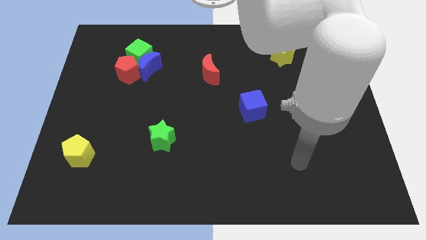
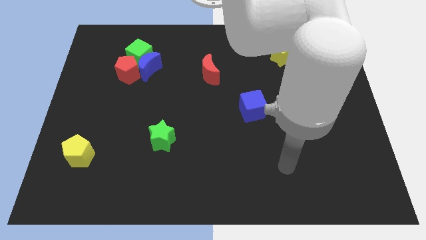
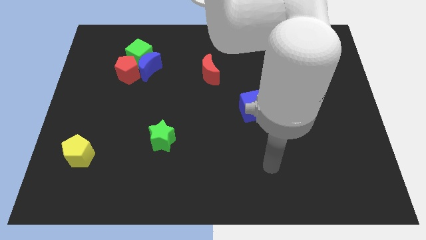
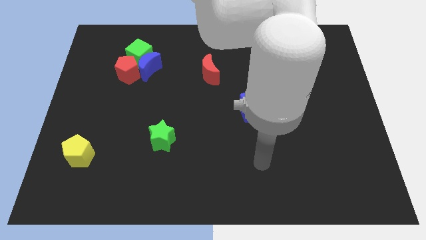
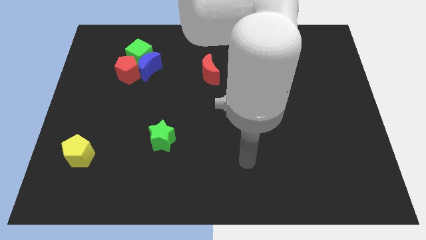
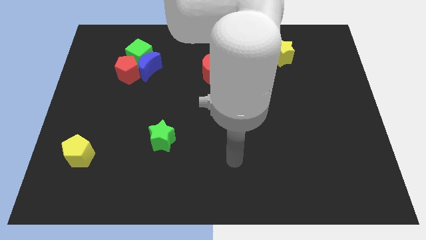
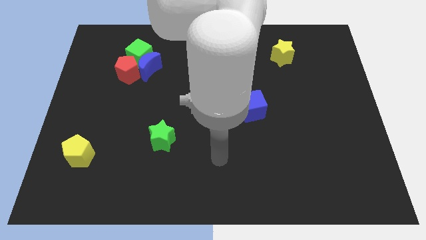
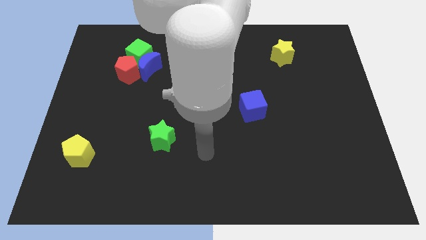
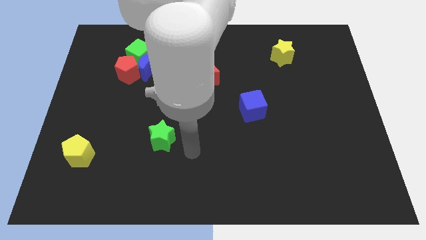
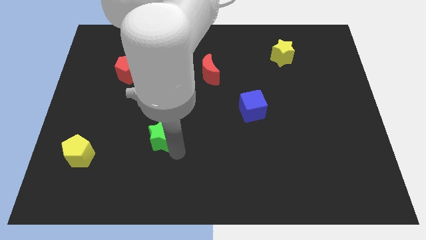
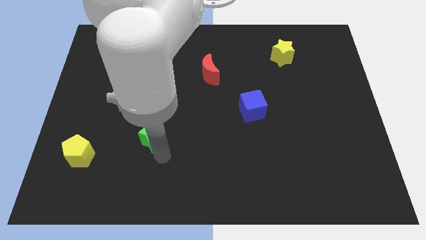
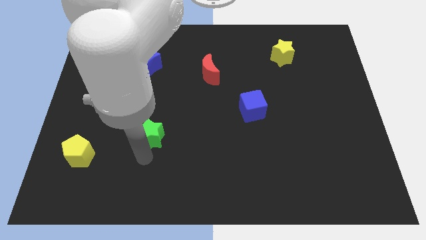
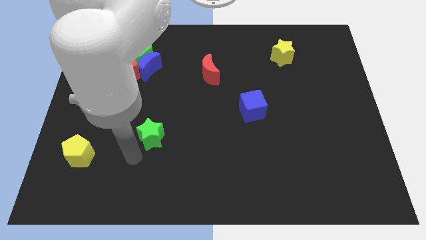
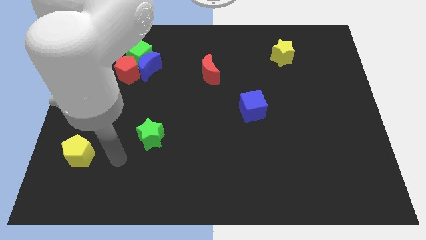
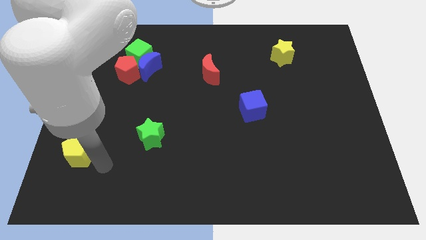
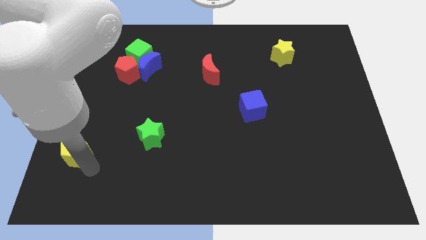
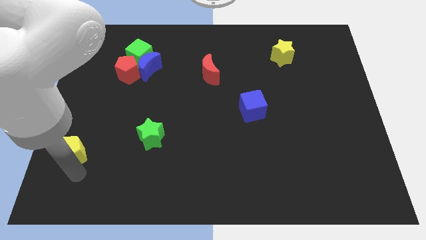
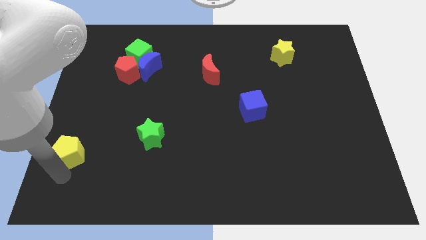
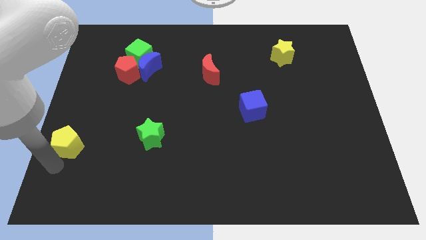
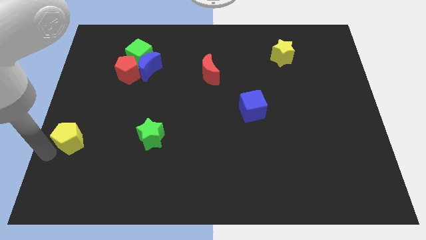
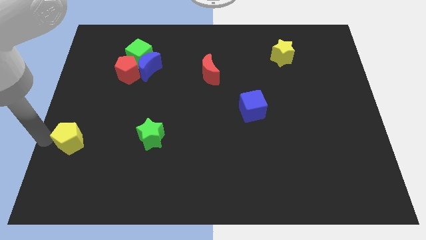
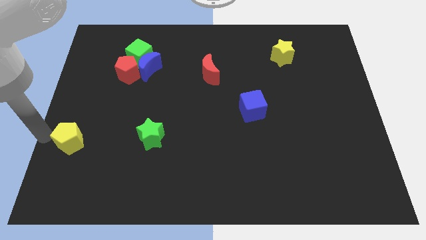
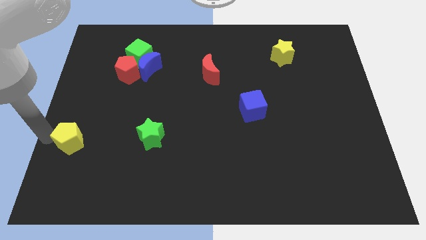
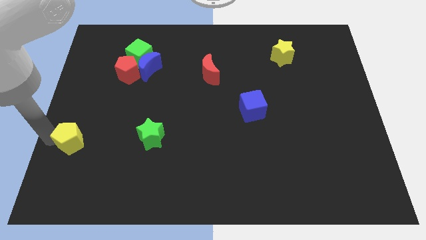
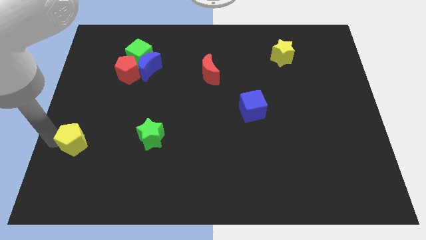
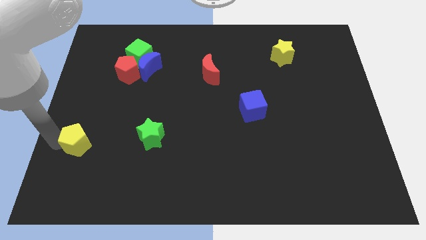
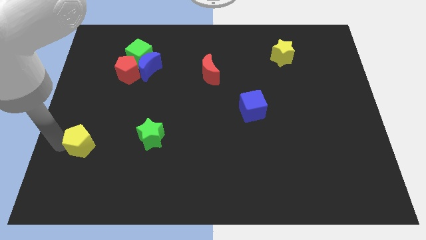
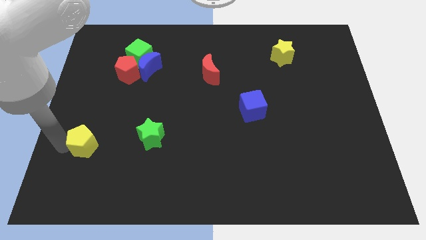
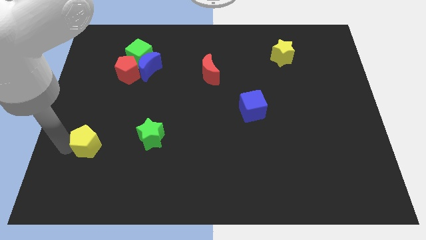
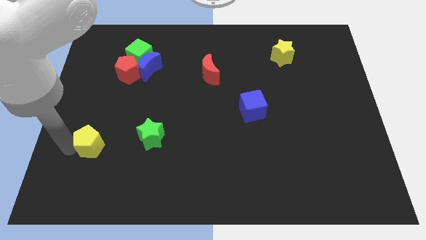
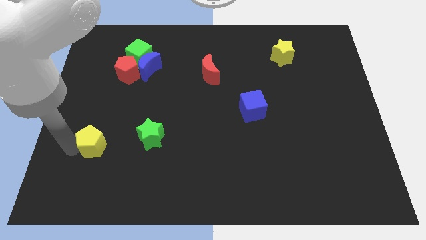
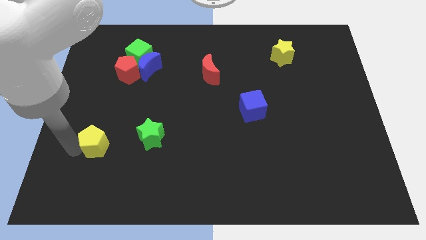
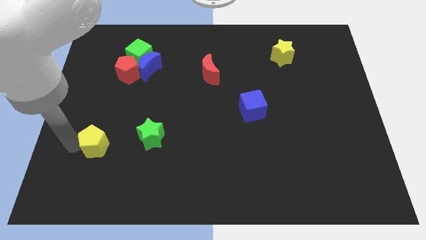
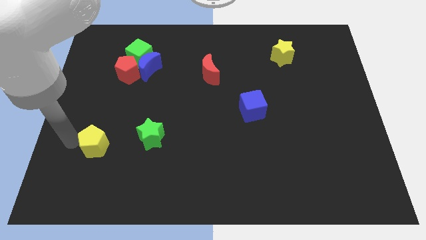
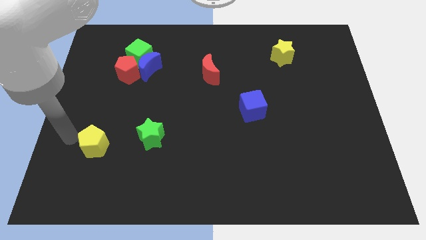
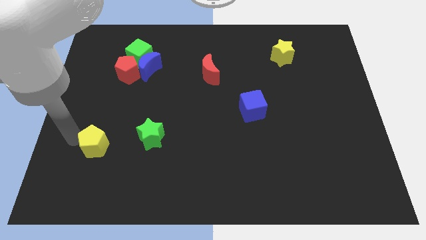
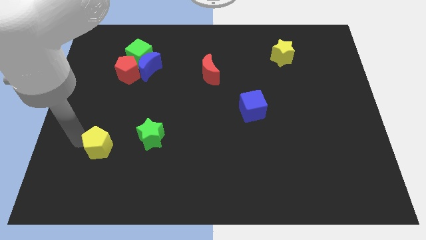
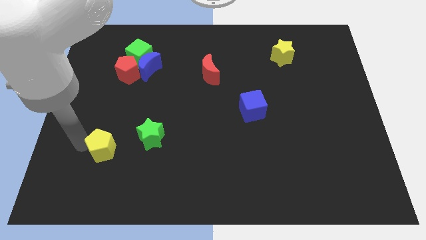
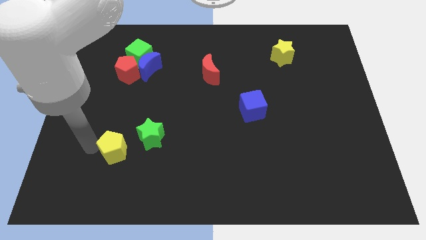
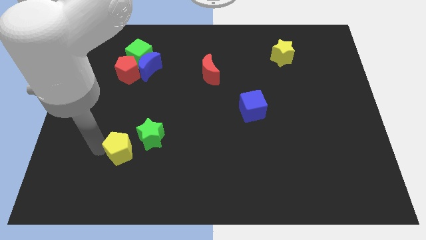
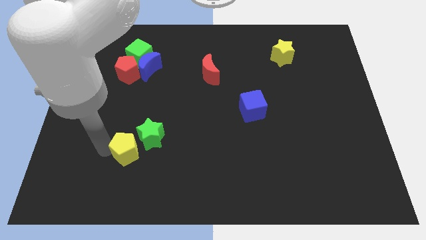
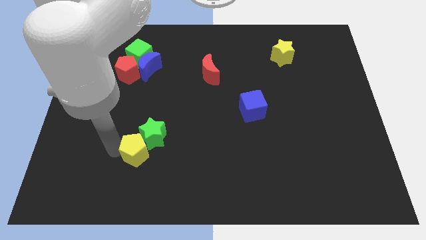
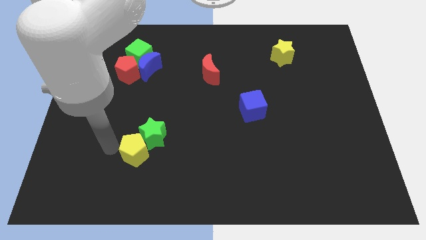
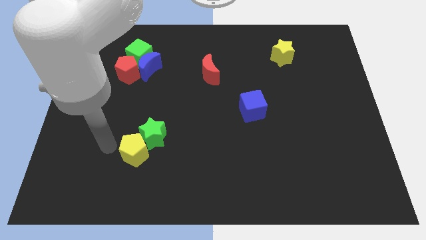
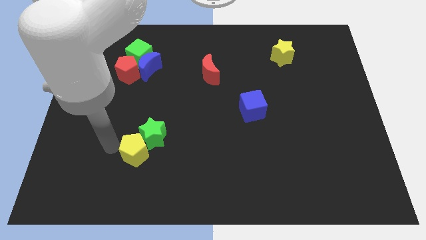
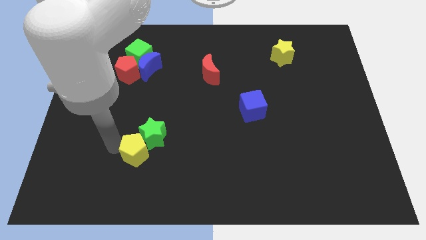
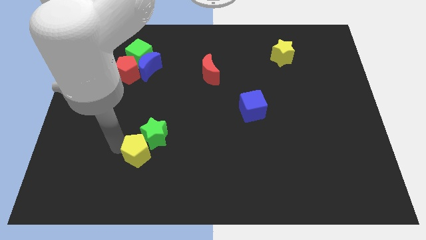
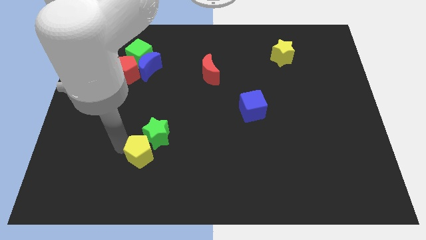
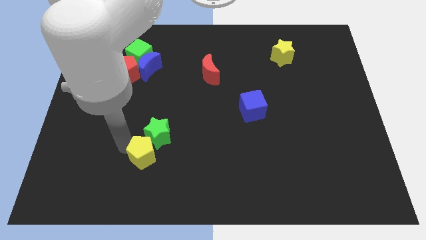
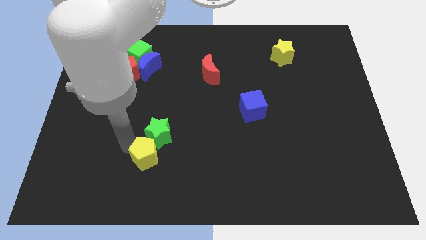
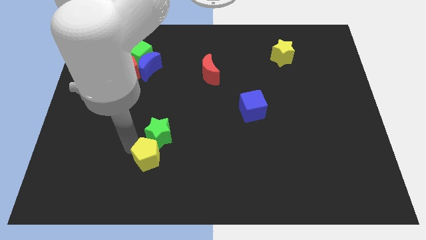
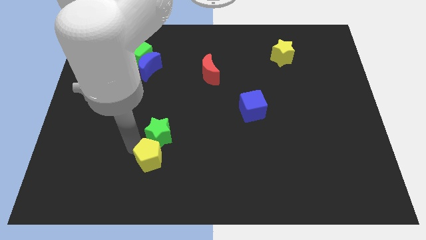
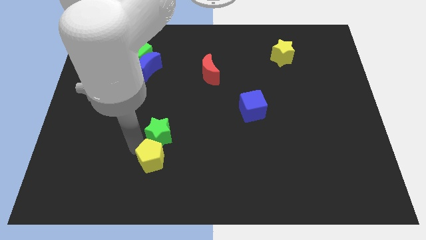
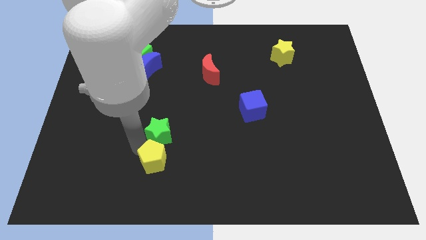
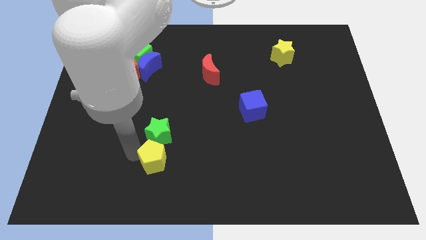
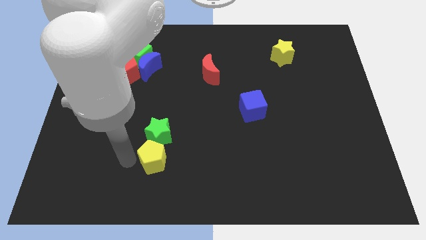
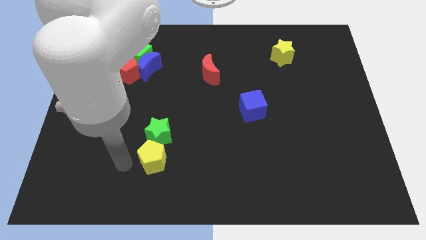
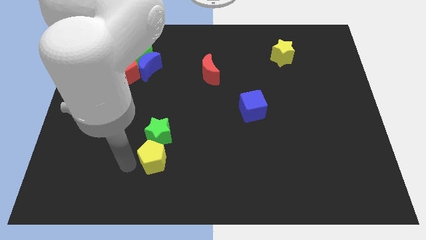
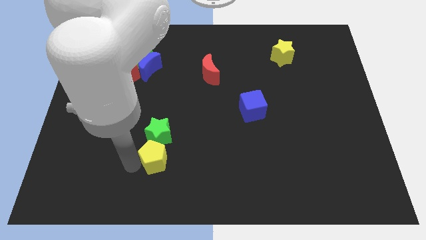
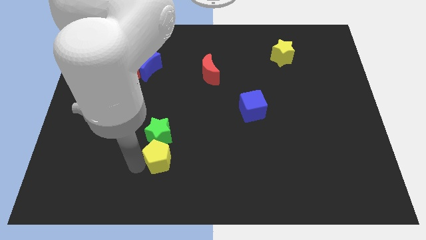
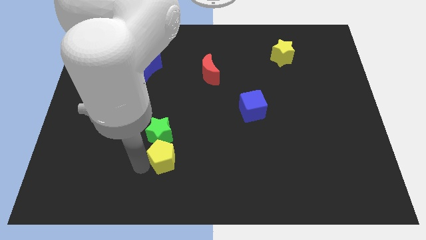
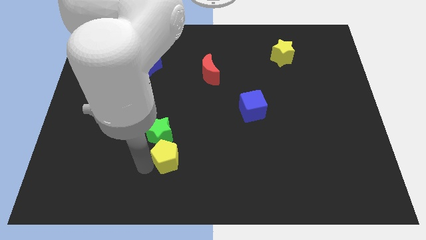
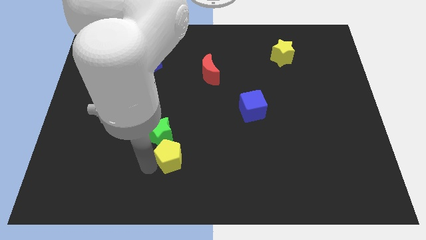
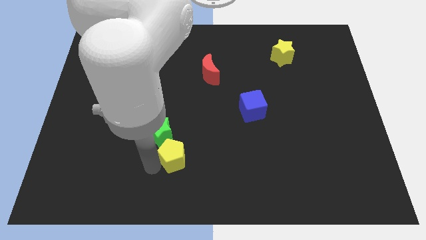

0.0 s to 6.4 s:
move the yellow pentagon to the right

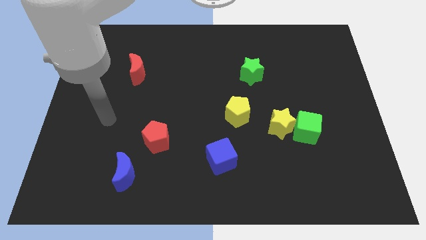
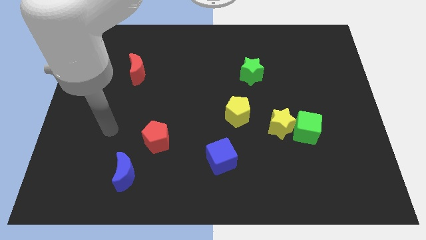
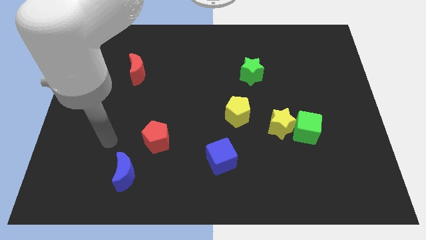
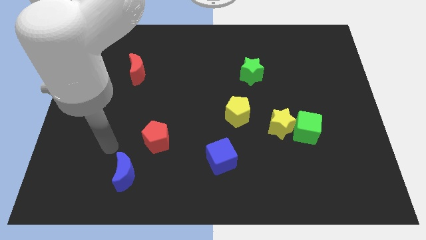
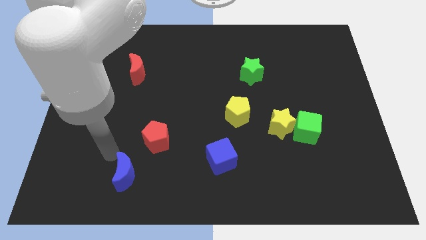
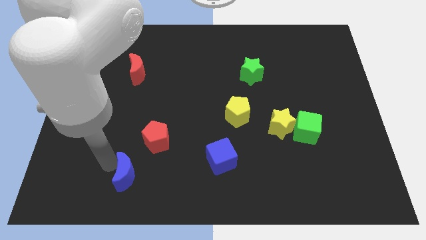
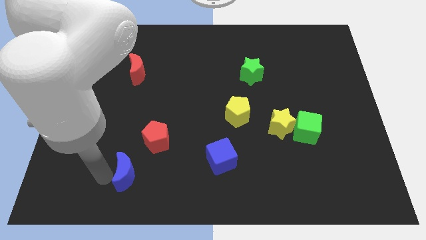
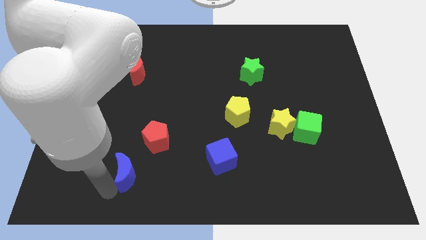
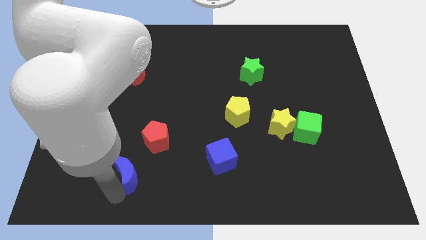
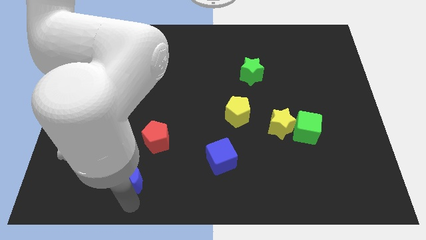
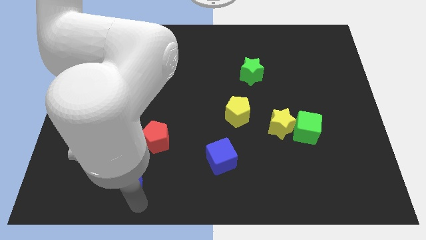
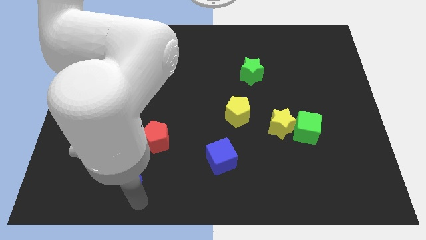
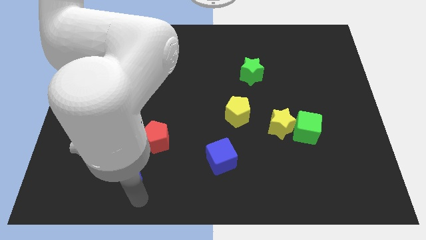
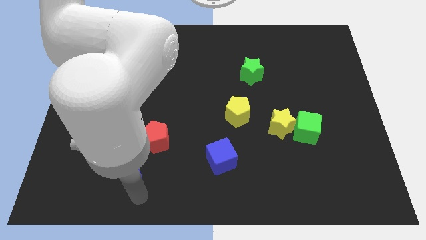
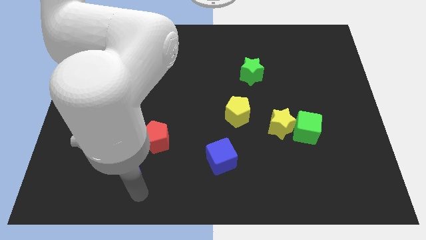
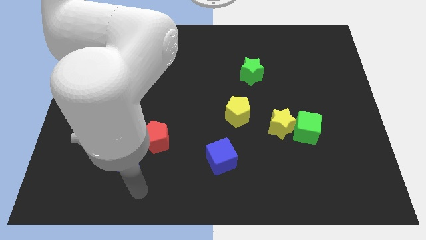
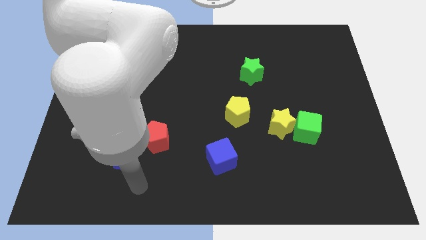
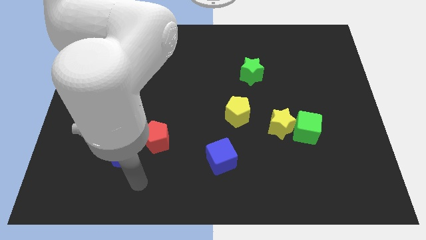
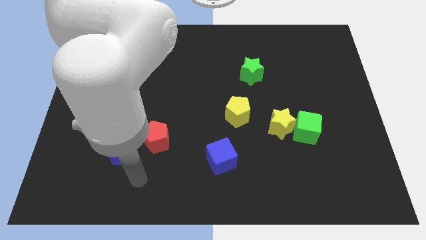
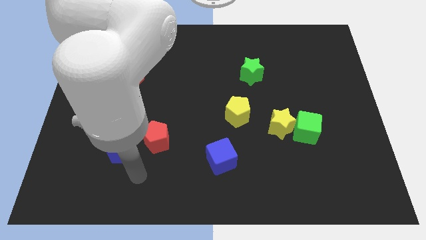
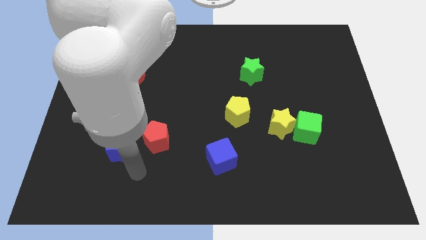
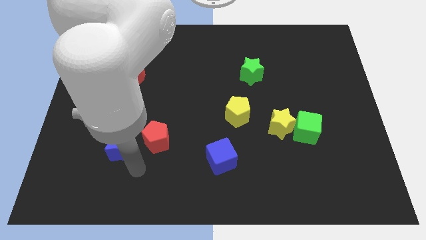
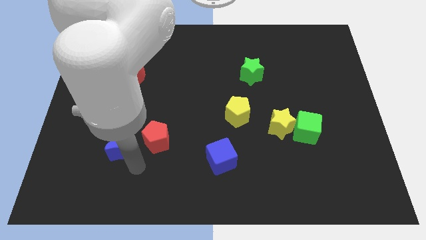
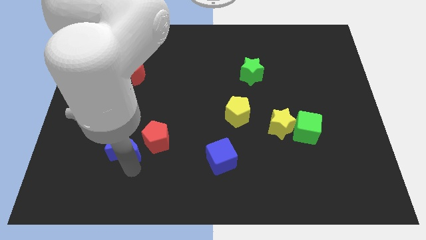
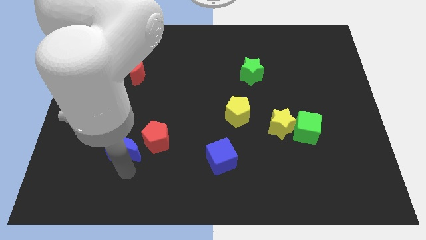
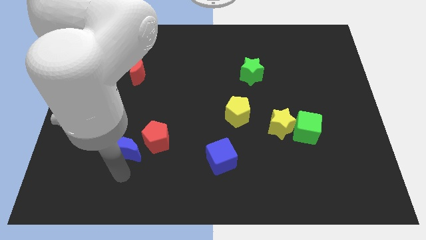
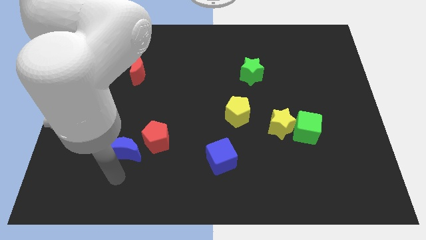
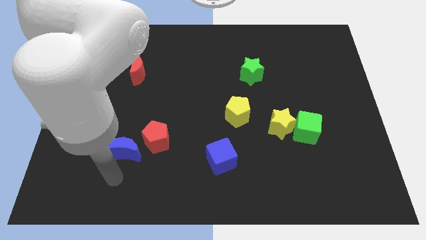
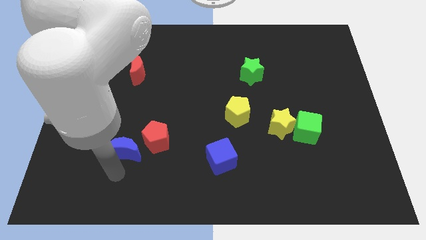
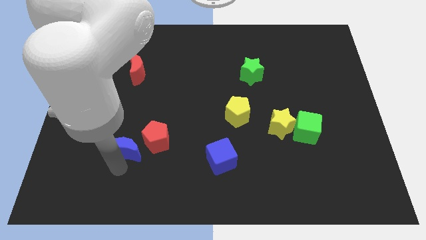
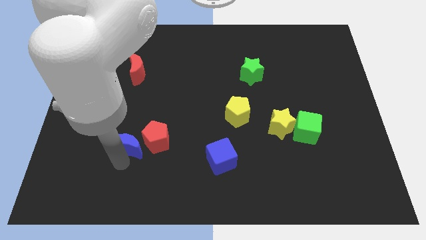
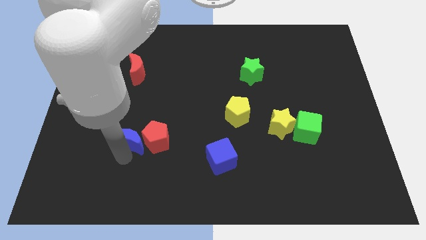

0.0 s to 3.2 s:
slide the blue moon somewhat upwards
